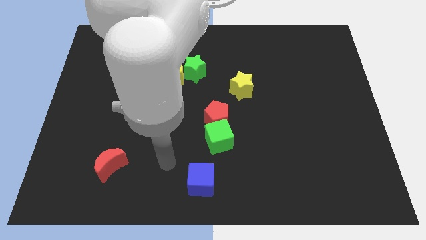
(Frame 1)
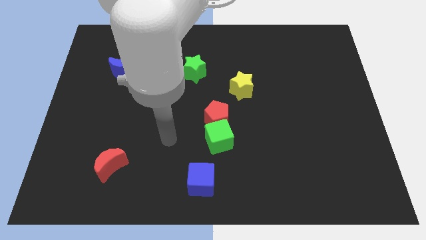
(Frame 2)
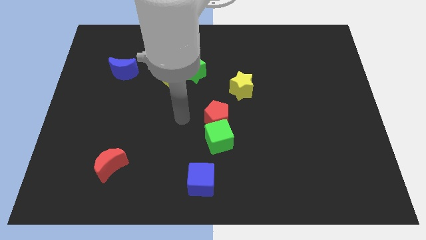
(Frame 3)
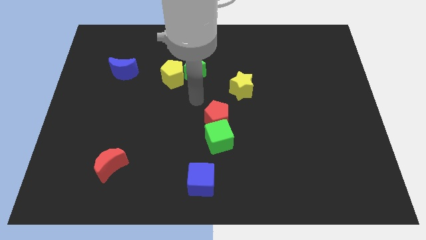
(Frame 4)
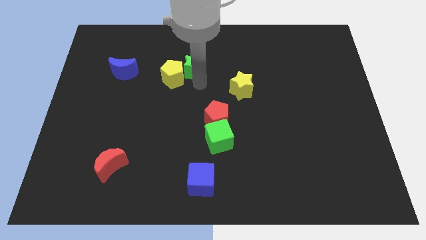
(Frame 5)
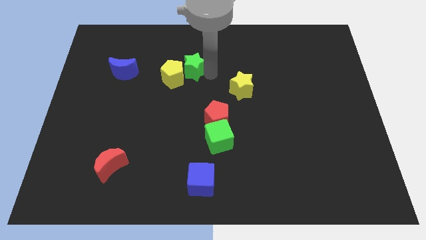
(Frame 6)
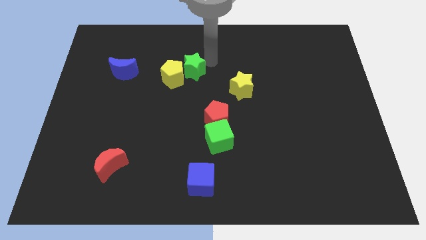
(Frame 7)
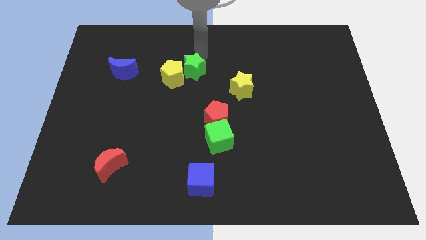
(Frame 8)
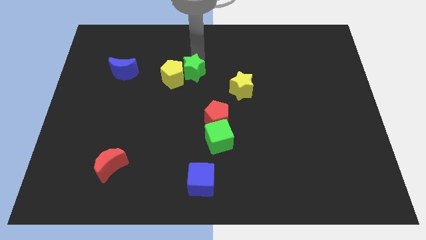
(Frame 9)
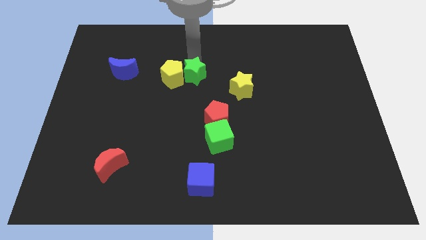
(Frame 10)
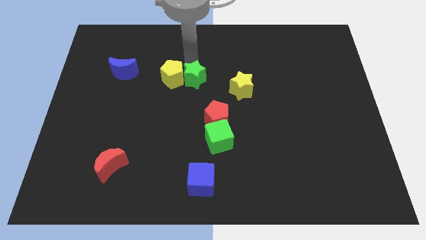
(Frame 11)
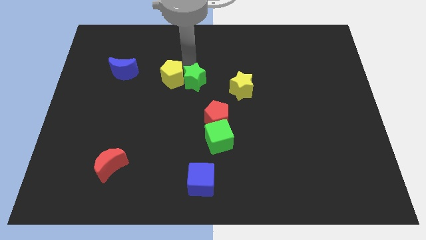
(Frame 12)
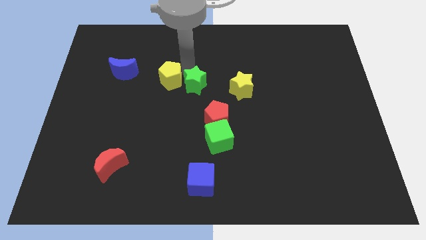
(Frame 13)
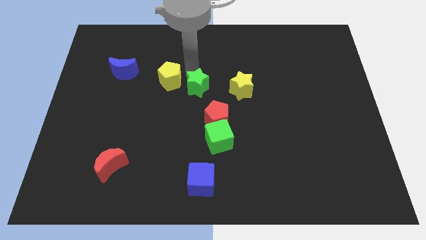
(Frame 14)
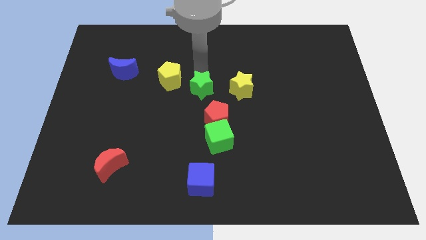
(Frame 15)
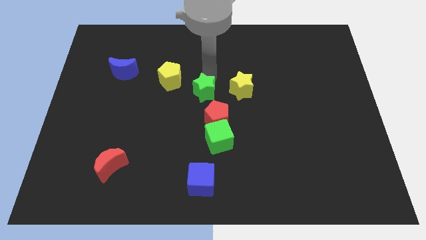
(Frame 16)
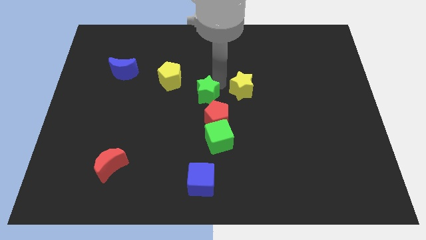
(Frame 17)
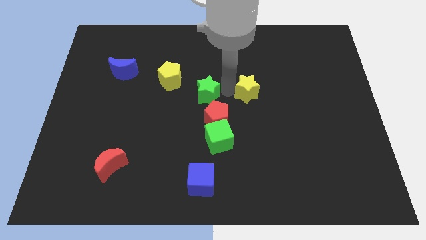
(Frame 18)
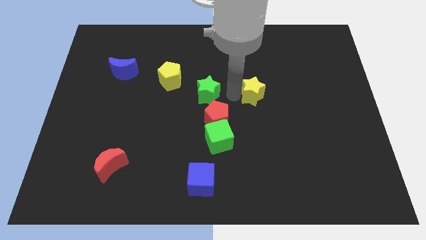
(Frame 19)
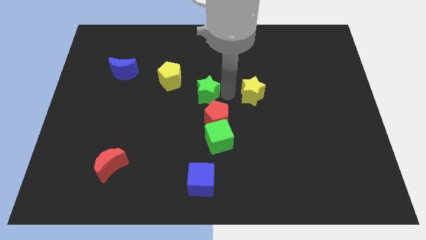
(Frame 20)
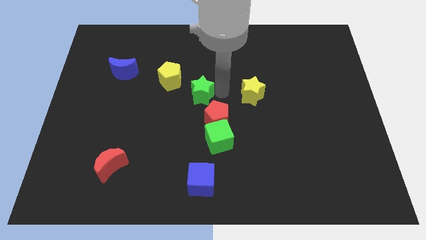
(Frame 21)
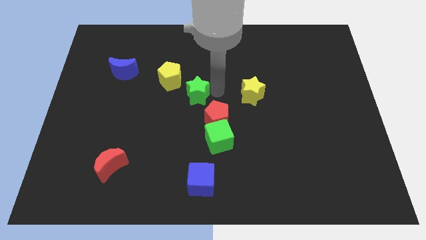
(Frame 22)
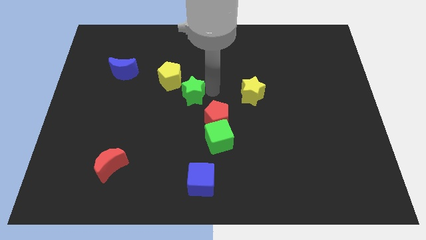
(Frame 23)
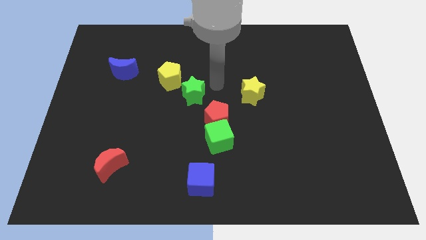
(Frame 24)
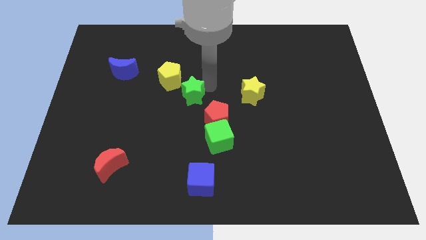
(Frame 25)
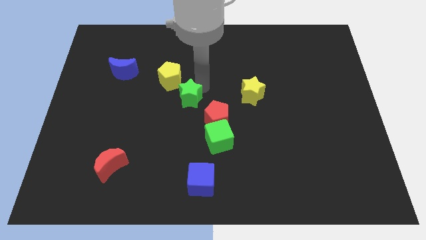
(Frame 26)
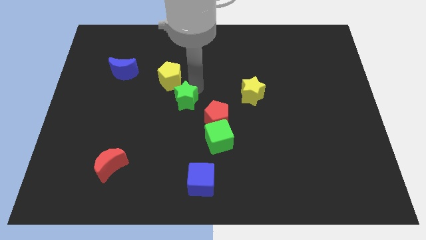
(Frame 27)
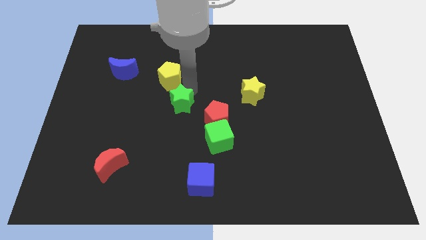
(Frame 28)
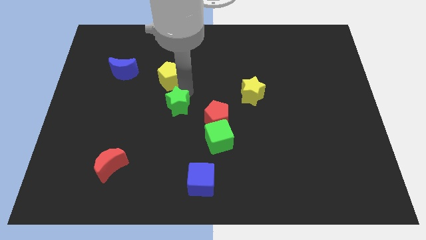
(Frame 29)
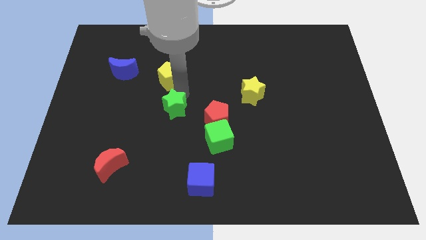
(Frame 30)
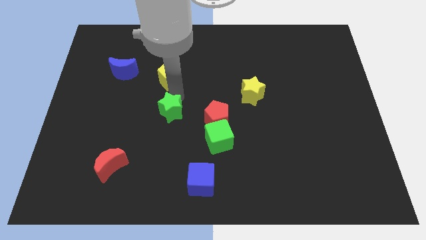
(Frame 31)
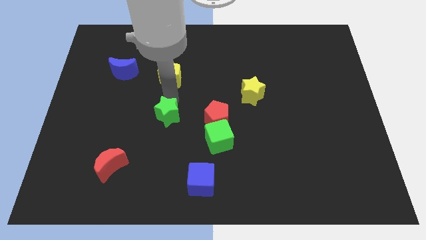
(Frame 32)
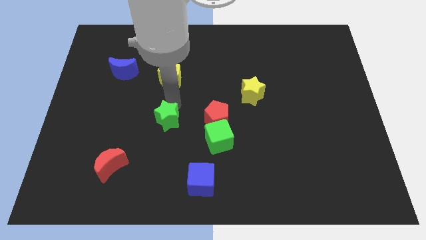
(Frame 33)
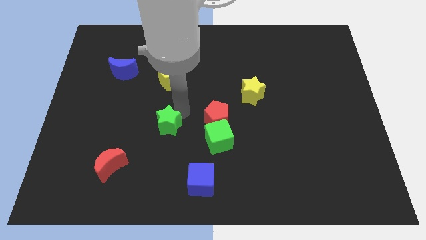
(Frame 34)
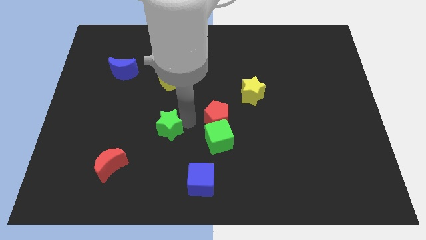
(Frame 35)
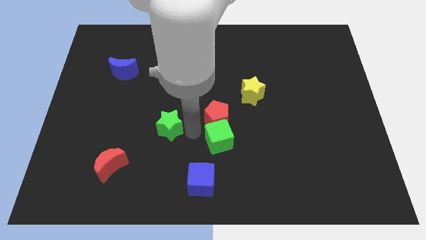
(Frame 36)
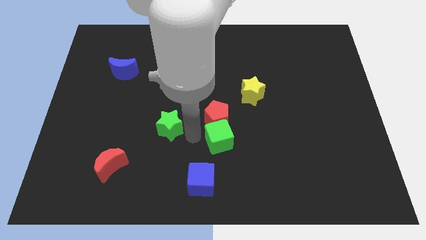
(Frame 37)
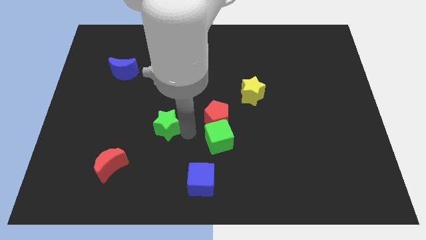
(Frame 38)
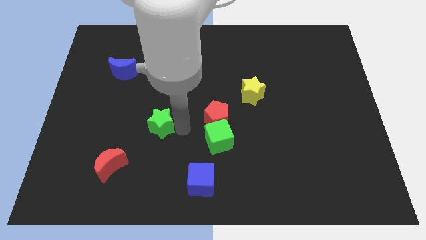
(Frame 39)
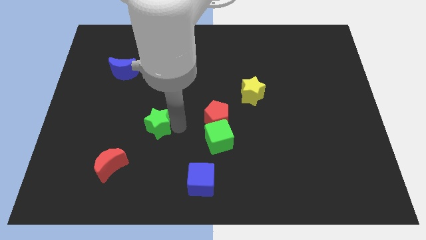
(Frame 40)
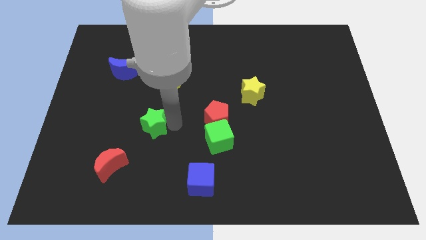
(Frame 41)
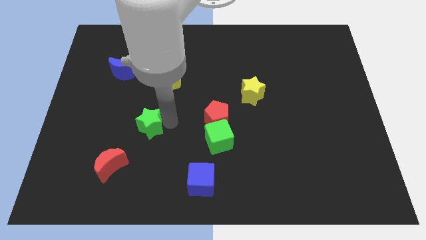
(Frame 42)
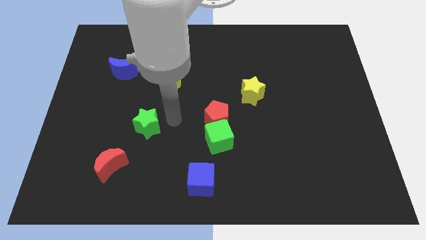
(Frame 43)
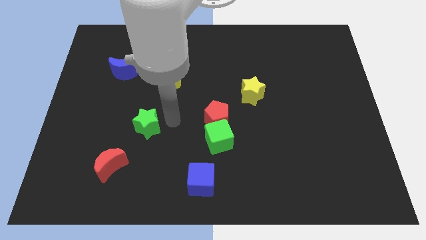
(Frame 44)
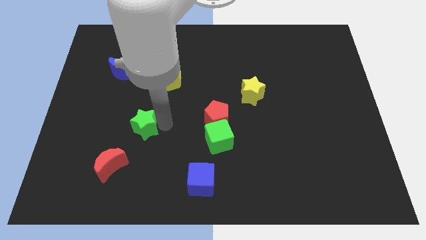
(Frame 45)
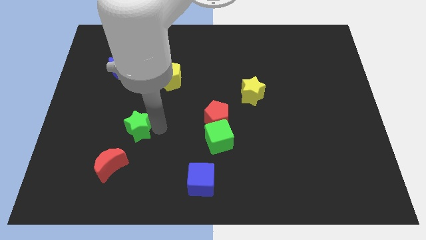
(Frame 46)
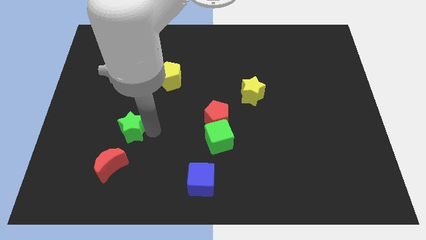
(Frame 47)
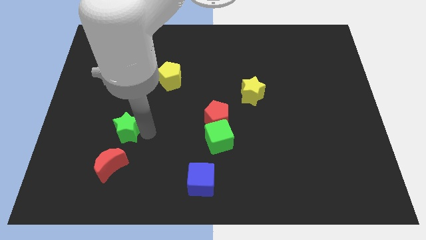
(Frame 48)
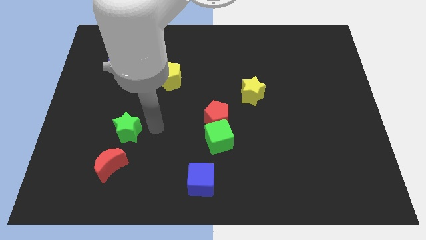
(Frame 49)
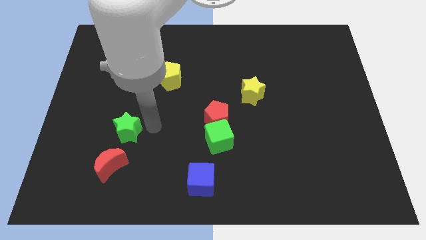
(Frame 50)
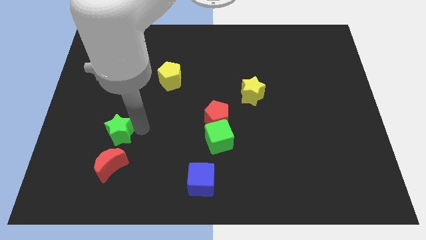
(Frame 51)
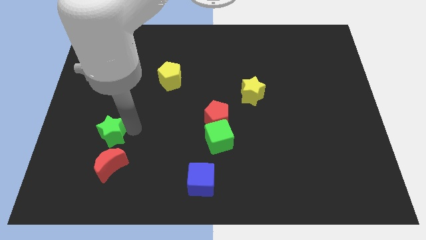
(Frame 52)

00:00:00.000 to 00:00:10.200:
slide the green star to the top left of the red moon

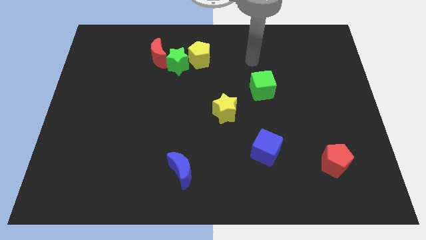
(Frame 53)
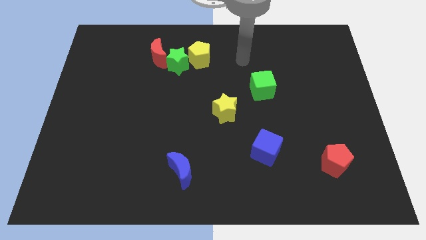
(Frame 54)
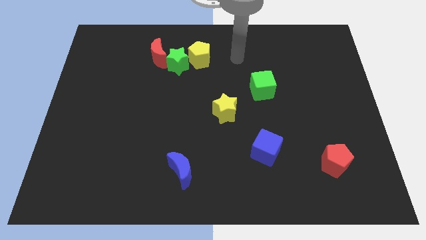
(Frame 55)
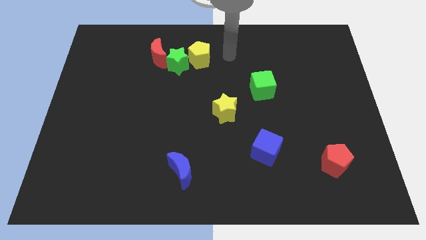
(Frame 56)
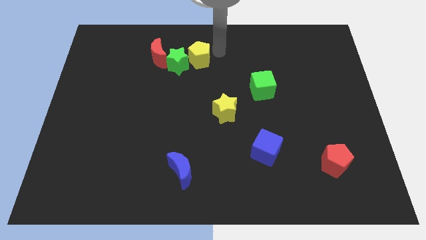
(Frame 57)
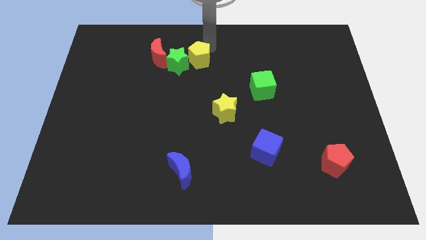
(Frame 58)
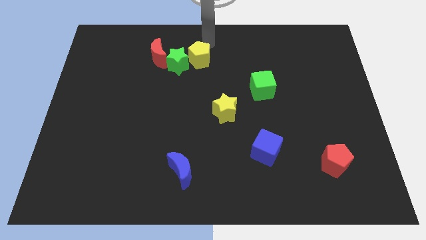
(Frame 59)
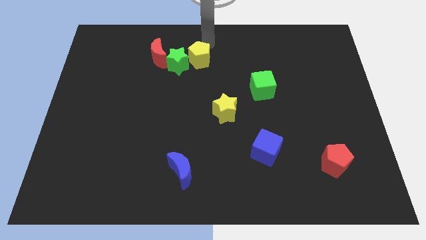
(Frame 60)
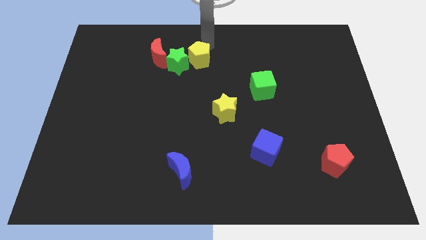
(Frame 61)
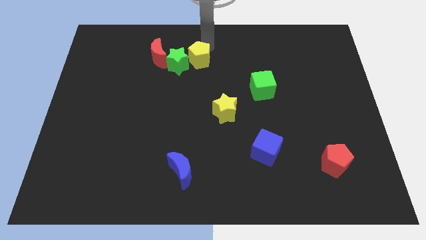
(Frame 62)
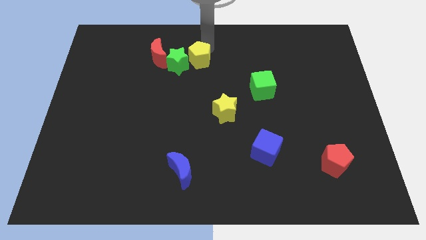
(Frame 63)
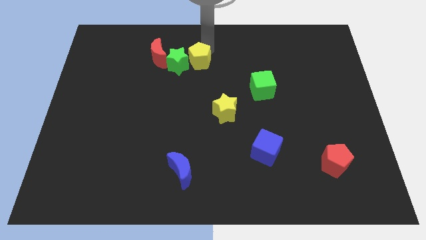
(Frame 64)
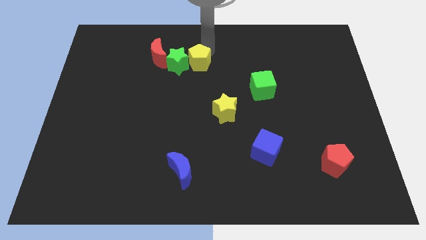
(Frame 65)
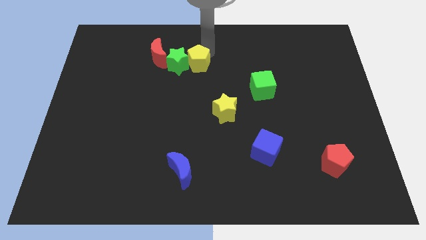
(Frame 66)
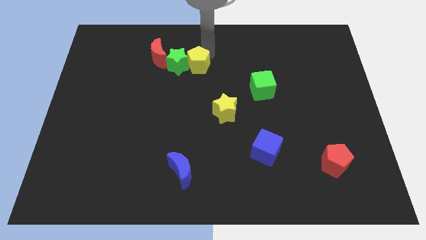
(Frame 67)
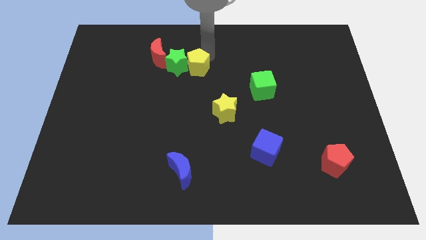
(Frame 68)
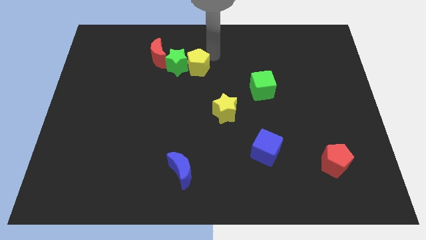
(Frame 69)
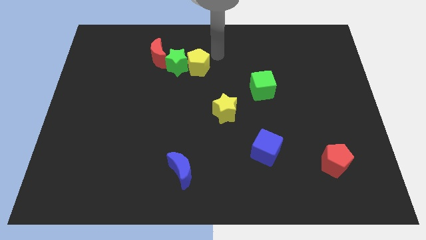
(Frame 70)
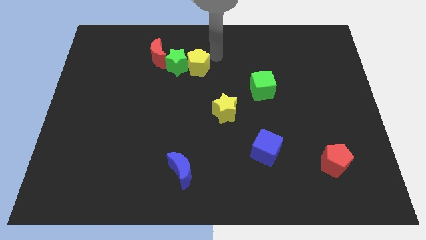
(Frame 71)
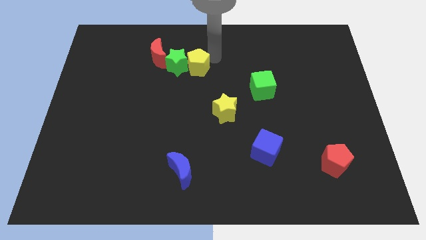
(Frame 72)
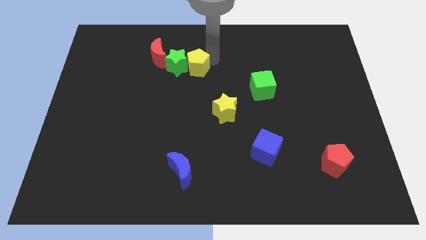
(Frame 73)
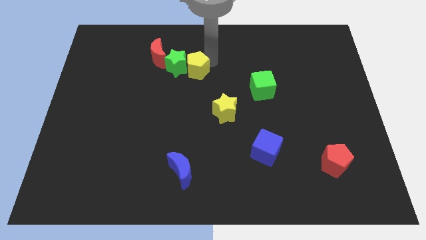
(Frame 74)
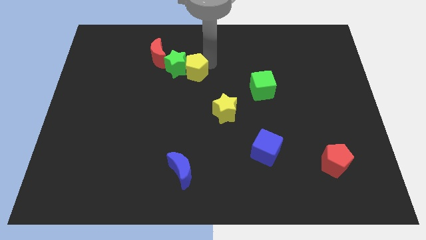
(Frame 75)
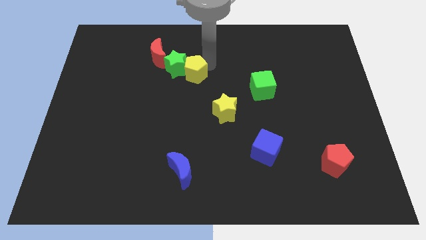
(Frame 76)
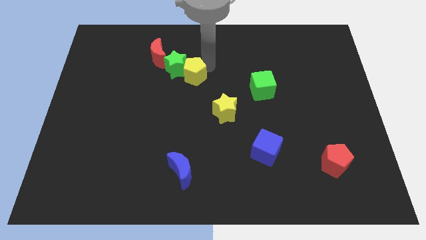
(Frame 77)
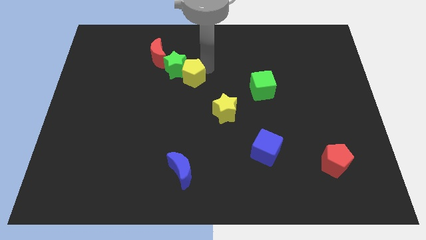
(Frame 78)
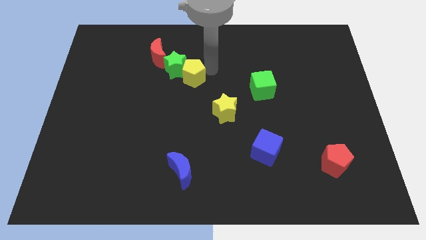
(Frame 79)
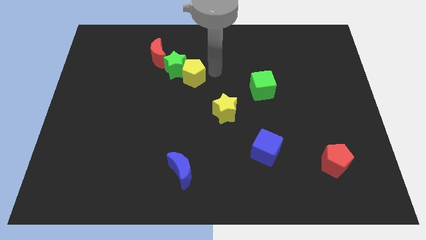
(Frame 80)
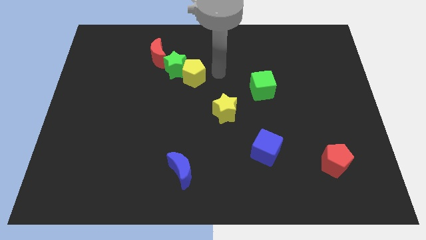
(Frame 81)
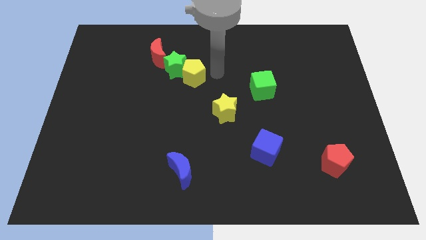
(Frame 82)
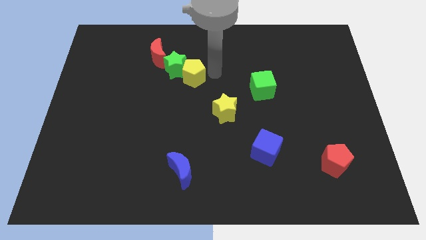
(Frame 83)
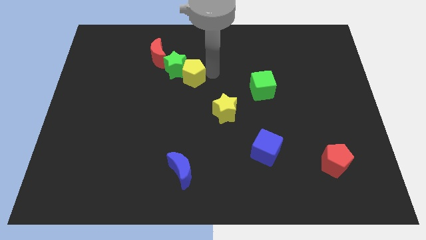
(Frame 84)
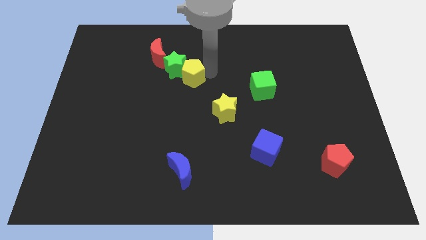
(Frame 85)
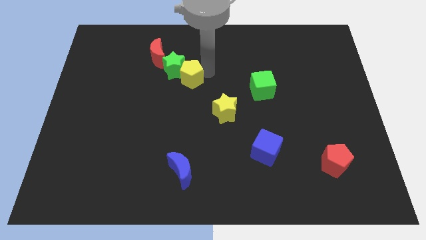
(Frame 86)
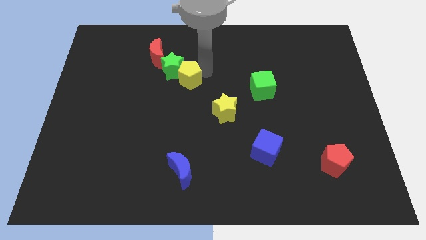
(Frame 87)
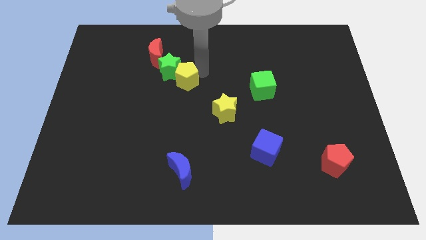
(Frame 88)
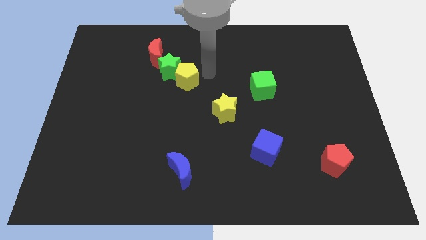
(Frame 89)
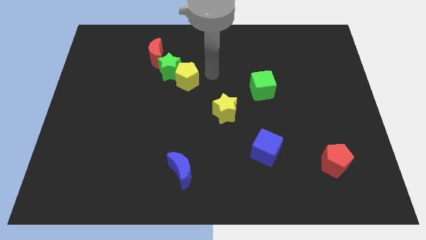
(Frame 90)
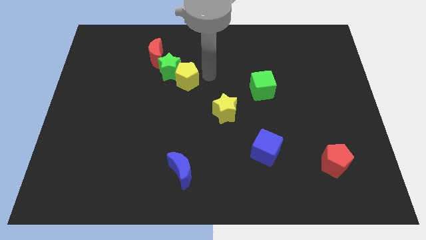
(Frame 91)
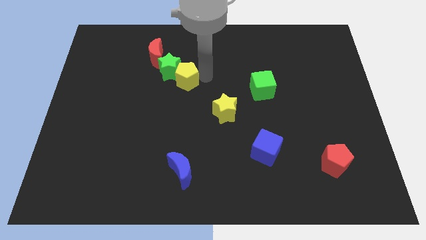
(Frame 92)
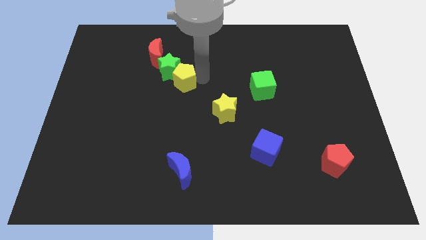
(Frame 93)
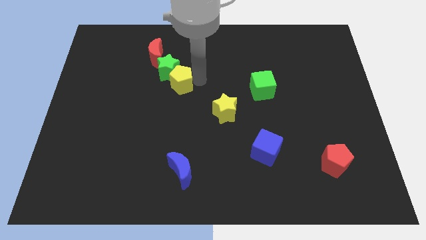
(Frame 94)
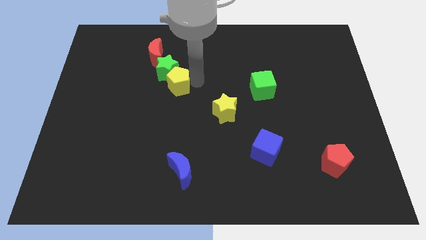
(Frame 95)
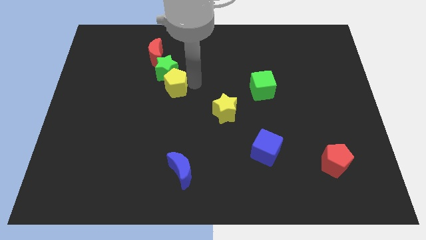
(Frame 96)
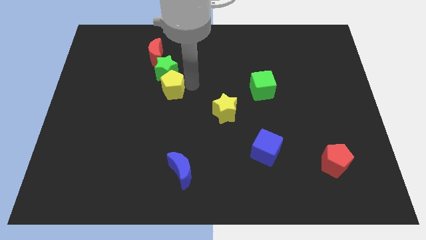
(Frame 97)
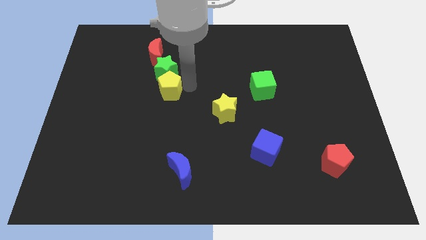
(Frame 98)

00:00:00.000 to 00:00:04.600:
move the yellow pentagon below the red moon
